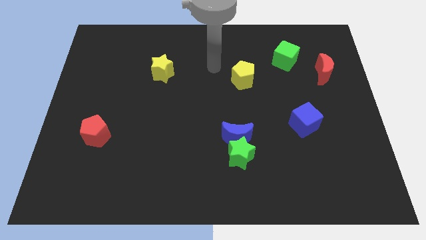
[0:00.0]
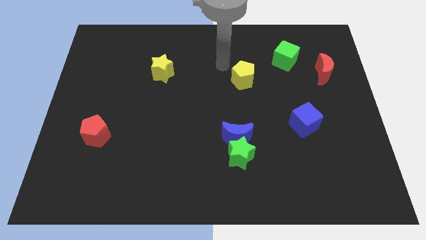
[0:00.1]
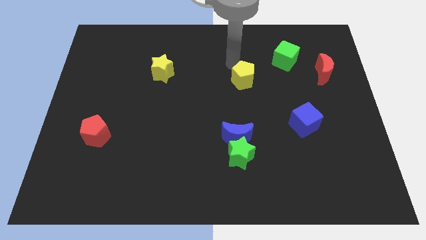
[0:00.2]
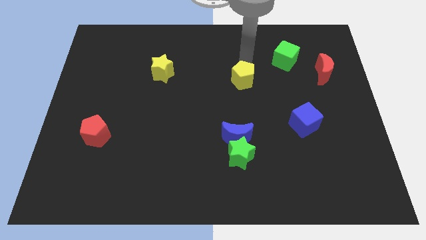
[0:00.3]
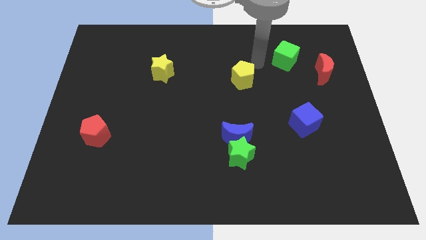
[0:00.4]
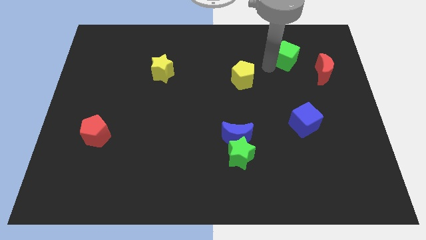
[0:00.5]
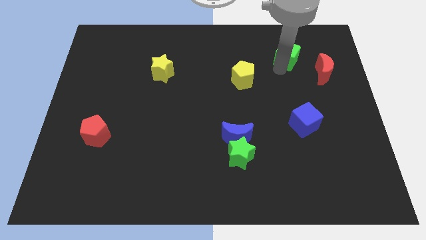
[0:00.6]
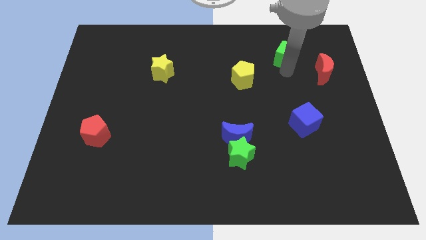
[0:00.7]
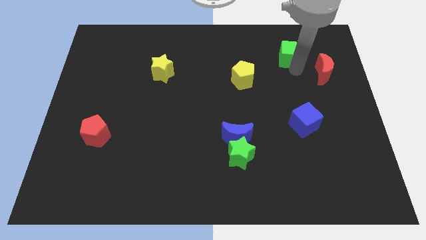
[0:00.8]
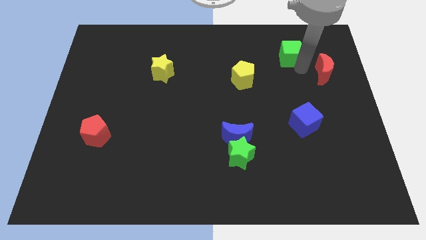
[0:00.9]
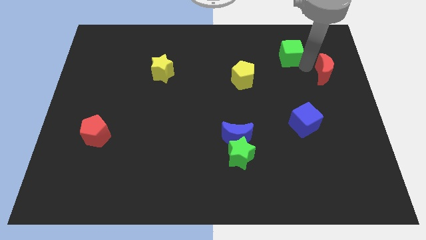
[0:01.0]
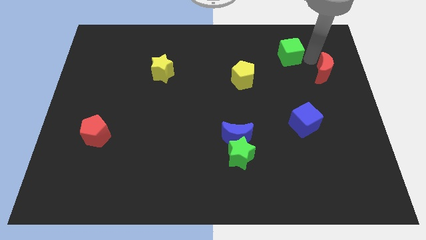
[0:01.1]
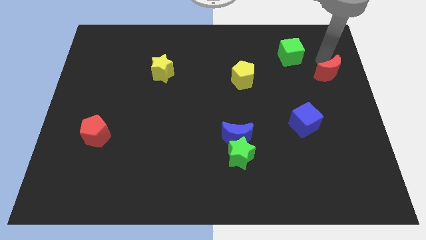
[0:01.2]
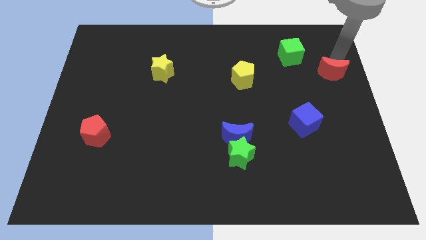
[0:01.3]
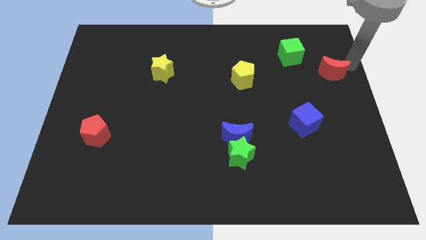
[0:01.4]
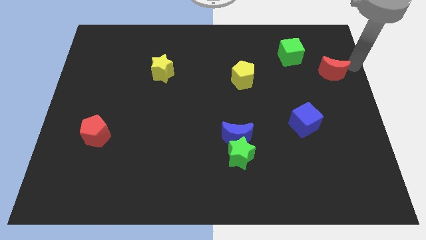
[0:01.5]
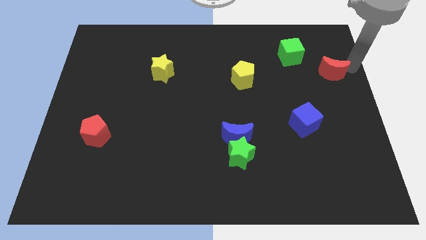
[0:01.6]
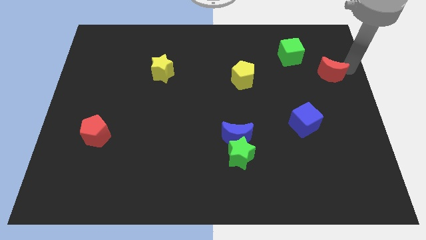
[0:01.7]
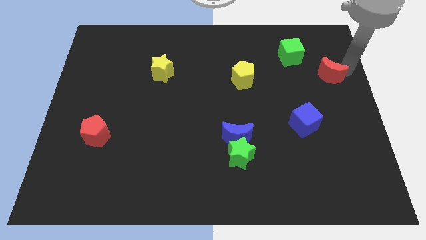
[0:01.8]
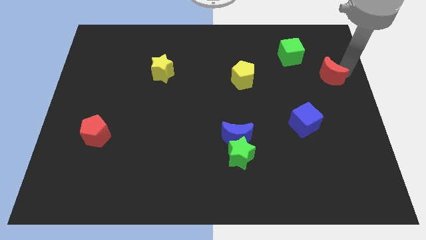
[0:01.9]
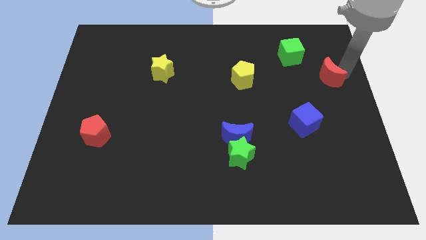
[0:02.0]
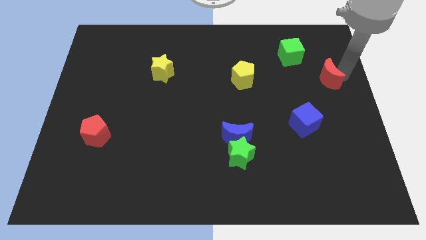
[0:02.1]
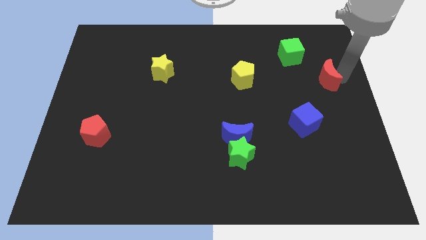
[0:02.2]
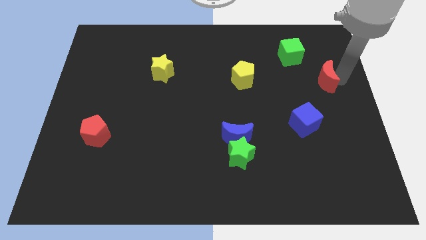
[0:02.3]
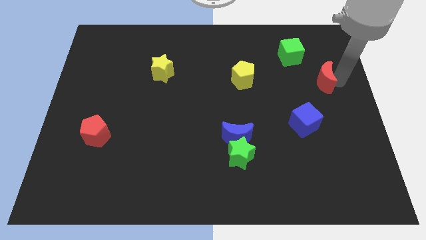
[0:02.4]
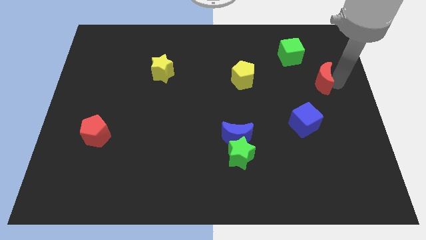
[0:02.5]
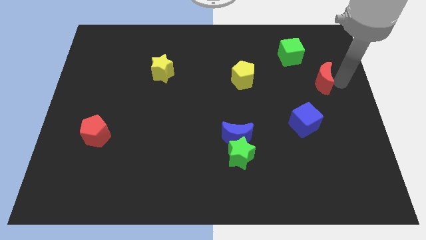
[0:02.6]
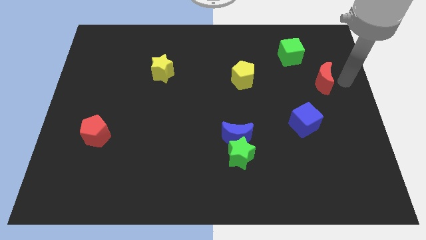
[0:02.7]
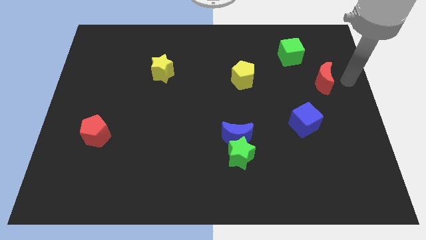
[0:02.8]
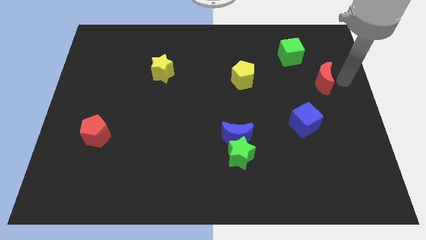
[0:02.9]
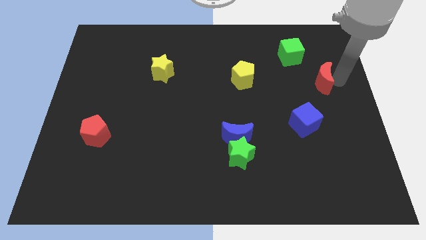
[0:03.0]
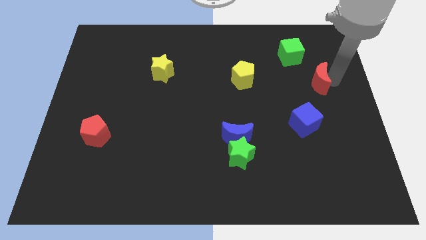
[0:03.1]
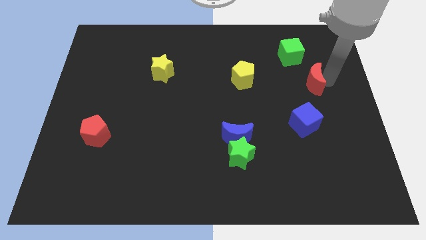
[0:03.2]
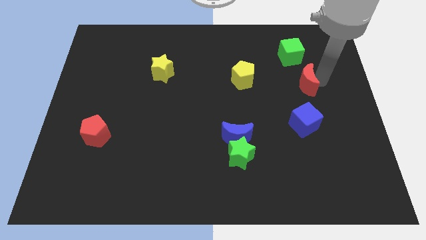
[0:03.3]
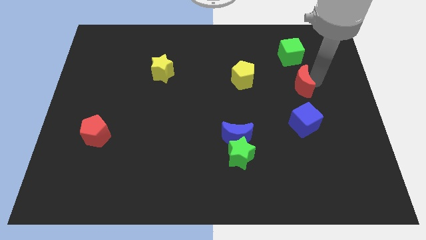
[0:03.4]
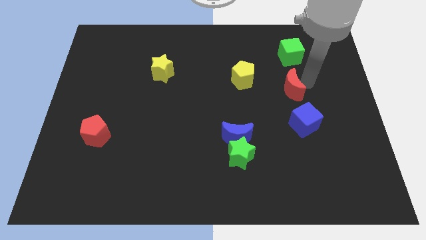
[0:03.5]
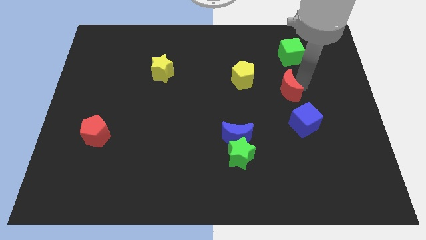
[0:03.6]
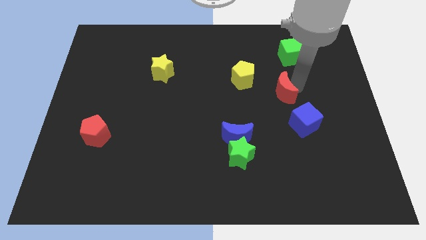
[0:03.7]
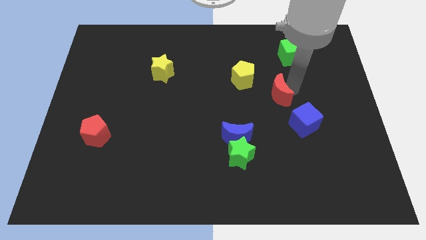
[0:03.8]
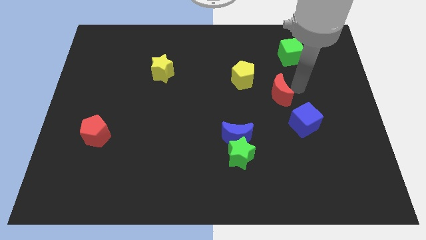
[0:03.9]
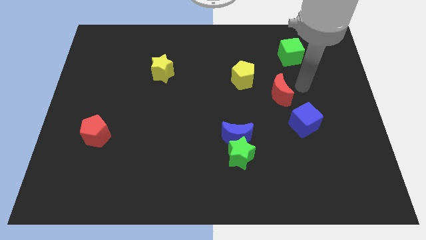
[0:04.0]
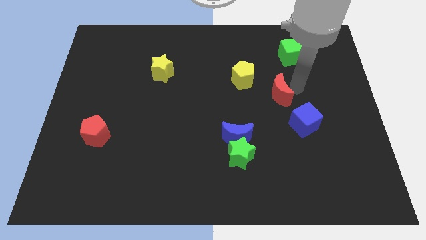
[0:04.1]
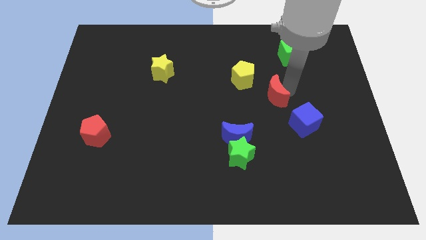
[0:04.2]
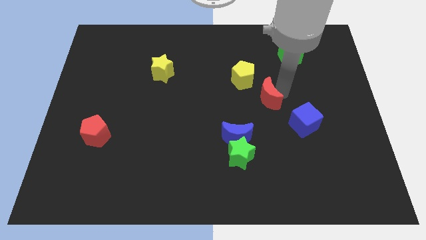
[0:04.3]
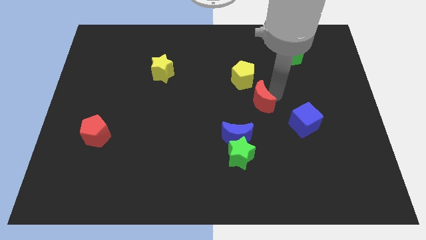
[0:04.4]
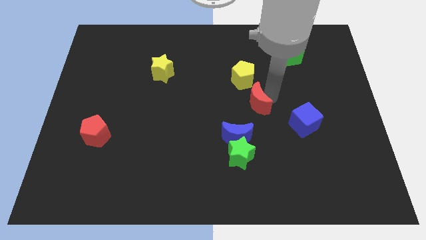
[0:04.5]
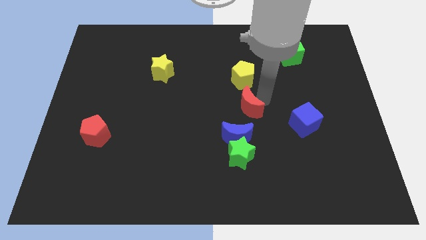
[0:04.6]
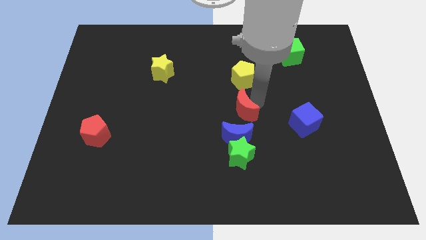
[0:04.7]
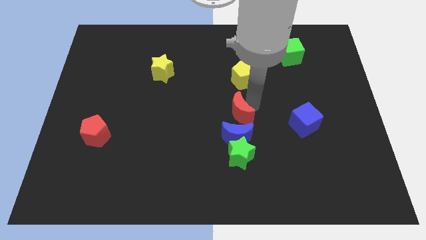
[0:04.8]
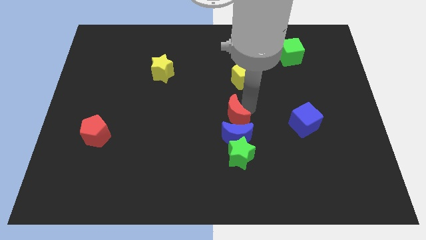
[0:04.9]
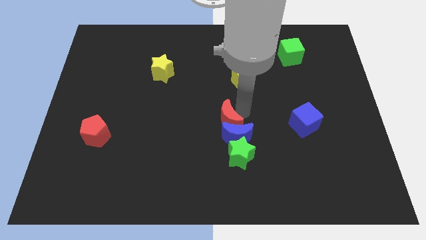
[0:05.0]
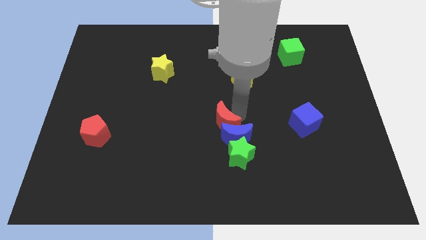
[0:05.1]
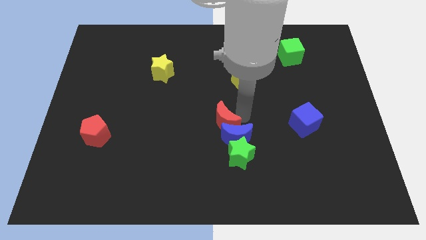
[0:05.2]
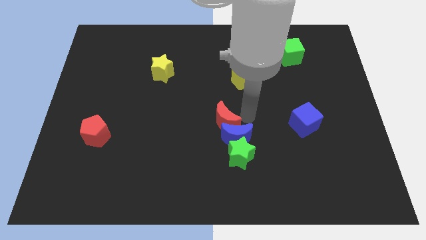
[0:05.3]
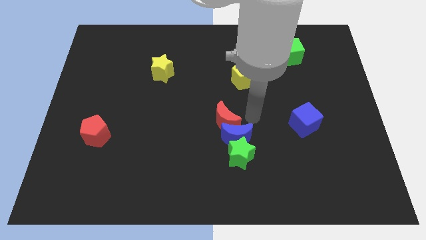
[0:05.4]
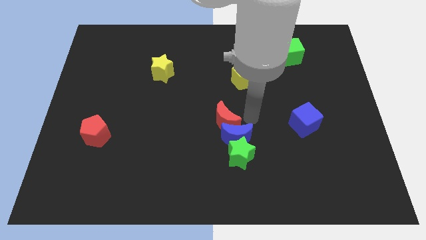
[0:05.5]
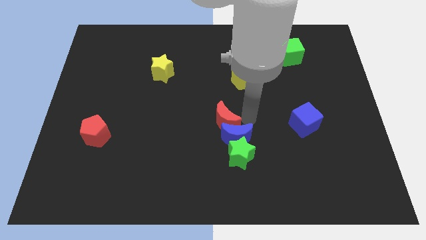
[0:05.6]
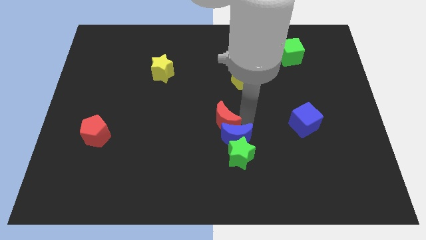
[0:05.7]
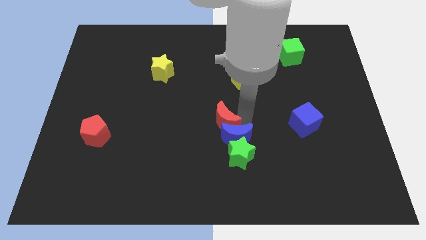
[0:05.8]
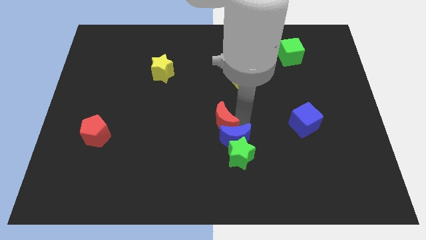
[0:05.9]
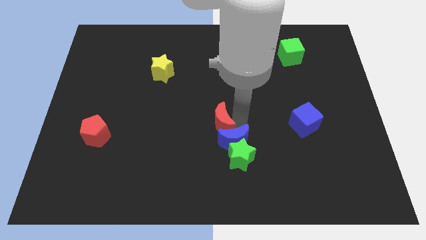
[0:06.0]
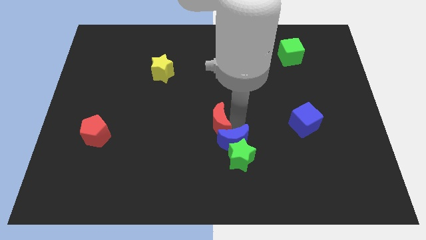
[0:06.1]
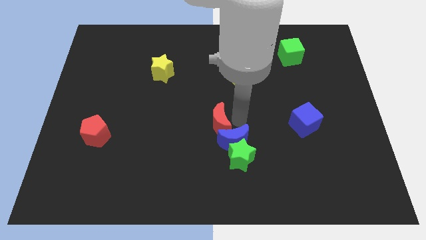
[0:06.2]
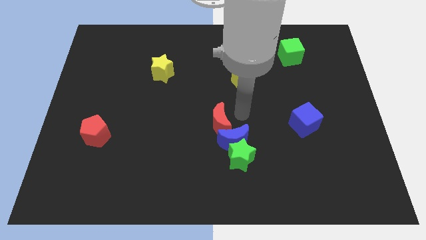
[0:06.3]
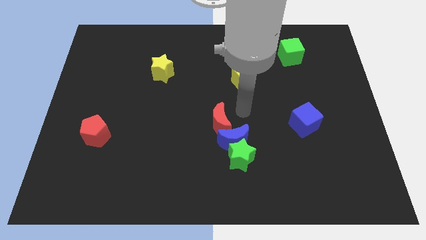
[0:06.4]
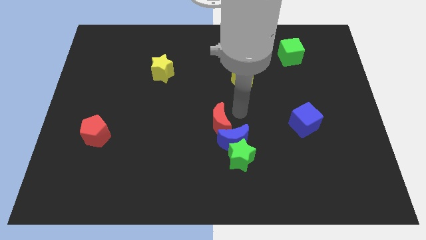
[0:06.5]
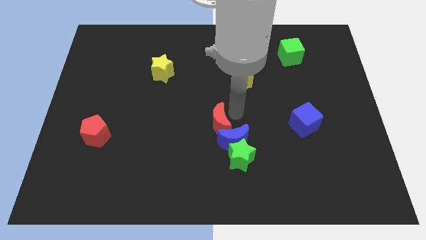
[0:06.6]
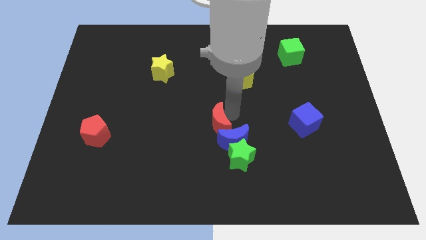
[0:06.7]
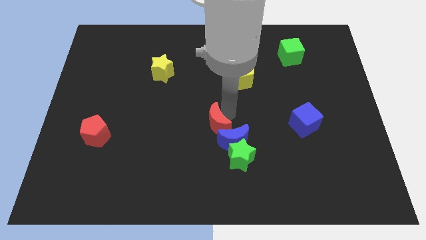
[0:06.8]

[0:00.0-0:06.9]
push the red moon to the left side of the blue moon

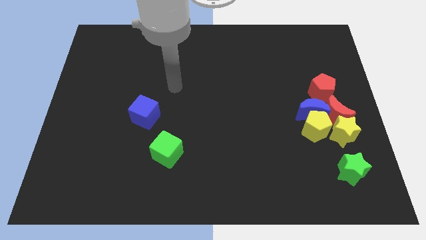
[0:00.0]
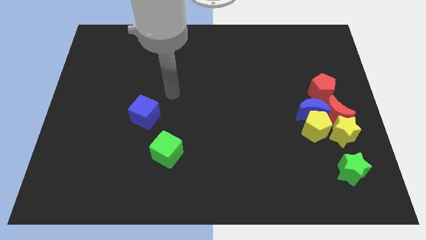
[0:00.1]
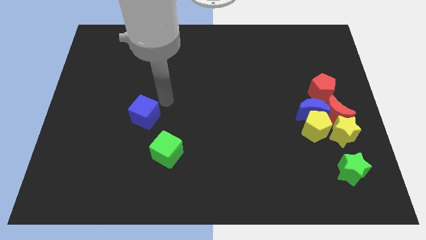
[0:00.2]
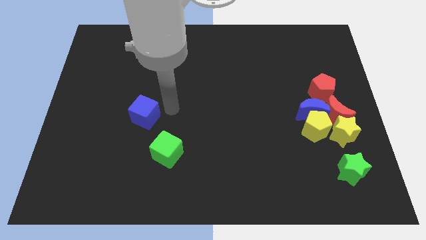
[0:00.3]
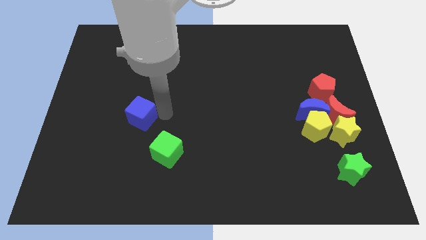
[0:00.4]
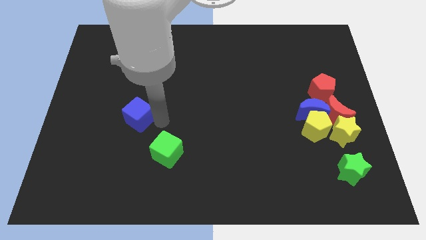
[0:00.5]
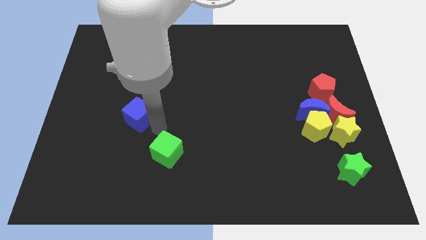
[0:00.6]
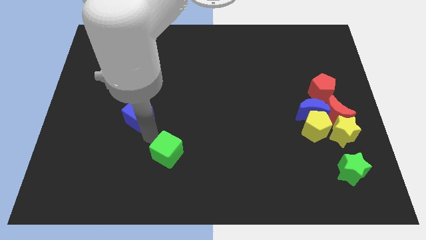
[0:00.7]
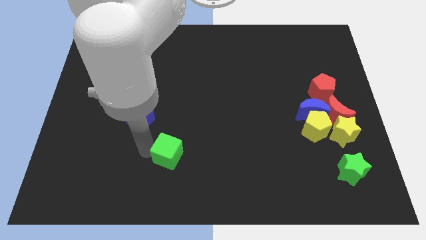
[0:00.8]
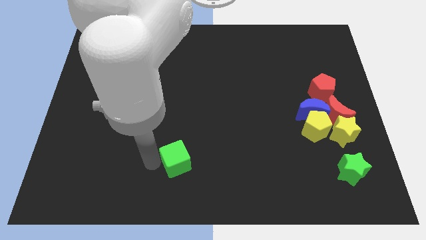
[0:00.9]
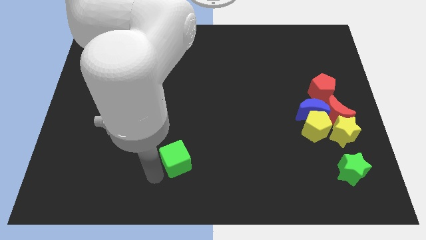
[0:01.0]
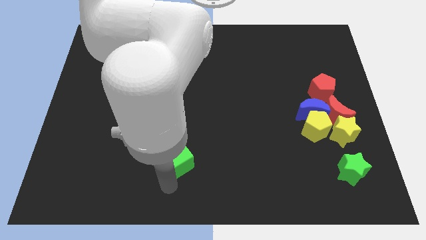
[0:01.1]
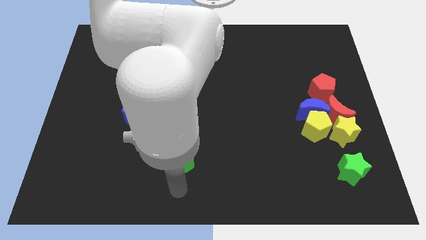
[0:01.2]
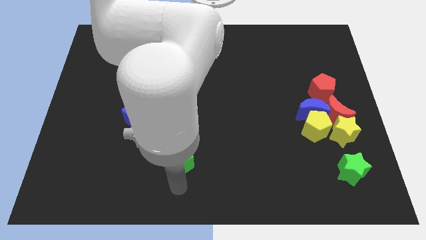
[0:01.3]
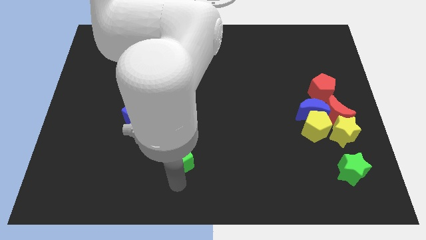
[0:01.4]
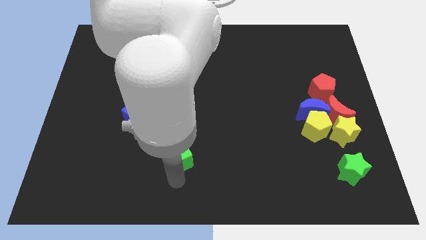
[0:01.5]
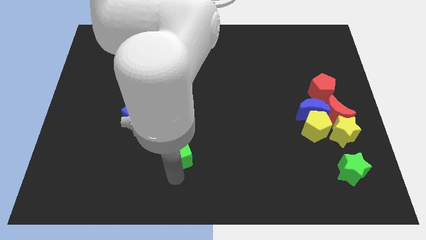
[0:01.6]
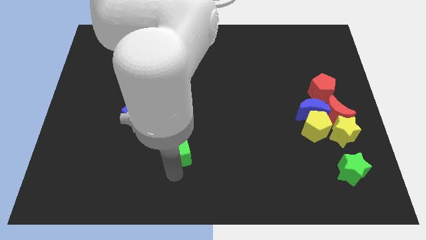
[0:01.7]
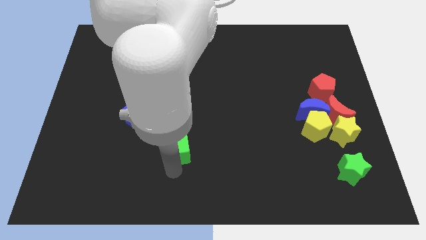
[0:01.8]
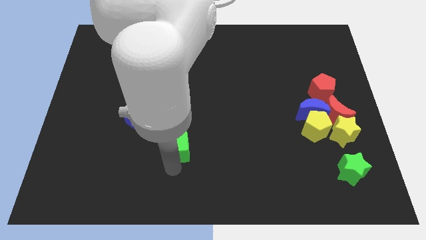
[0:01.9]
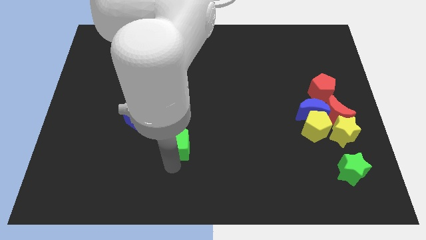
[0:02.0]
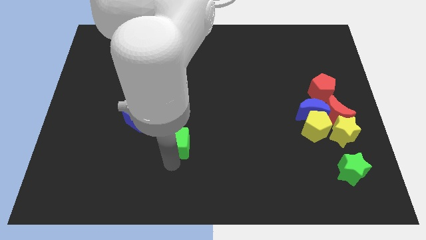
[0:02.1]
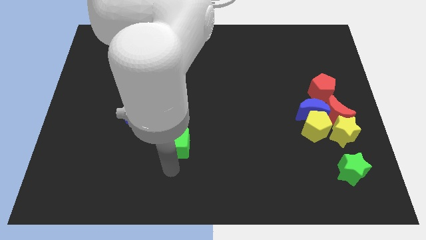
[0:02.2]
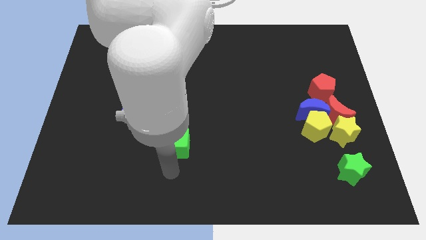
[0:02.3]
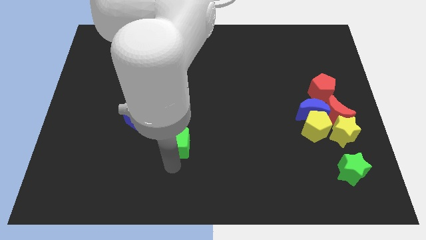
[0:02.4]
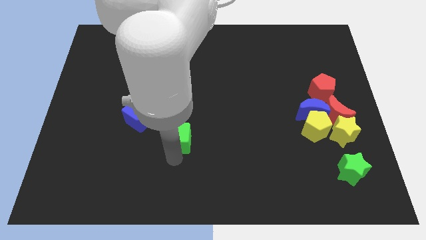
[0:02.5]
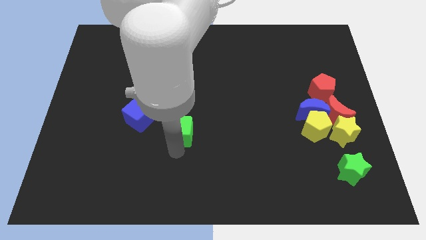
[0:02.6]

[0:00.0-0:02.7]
push the green cube right of the blue cube
